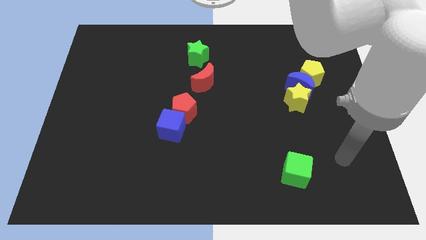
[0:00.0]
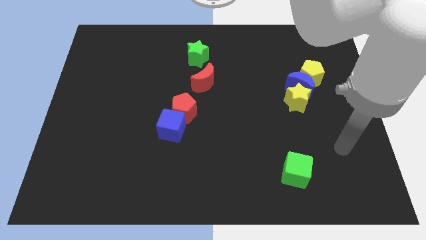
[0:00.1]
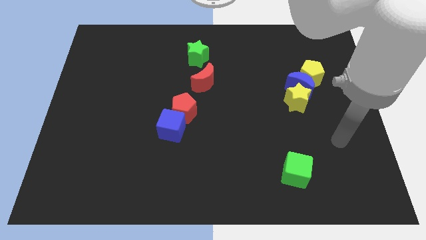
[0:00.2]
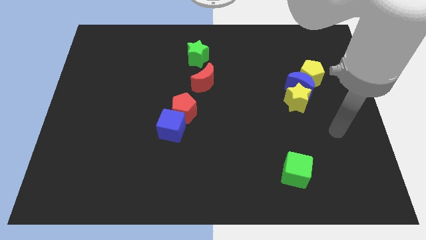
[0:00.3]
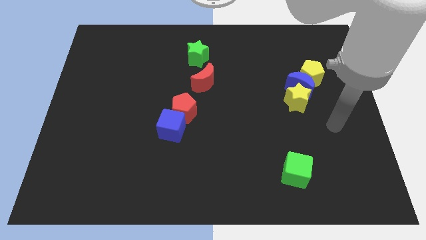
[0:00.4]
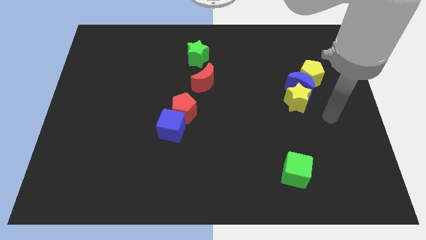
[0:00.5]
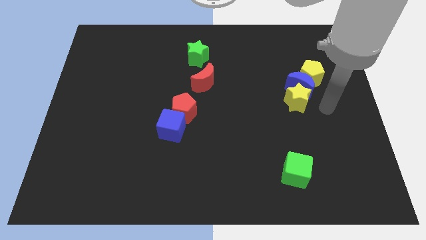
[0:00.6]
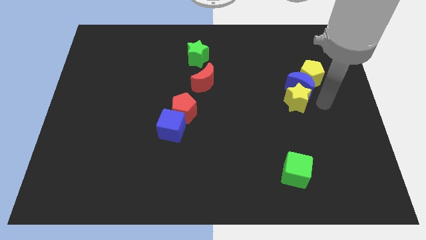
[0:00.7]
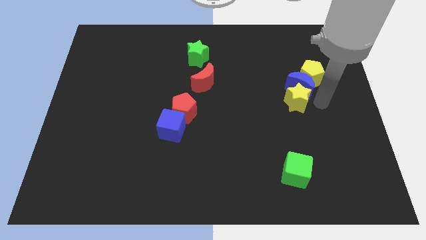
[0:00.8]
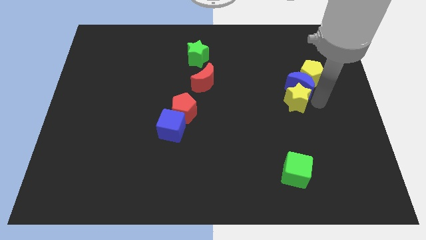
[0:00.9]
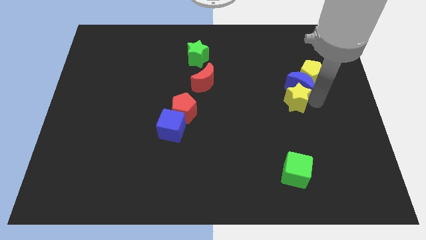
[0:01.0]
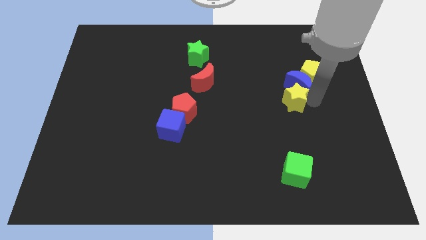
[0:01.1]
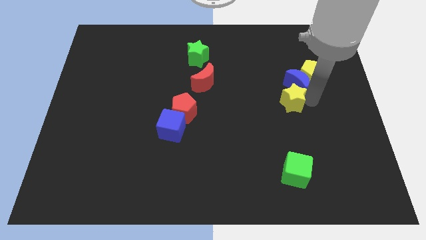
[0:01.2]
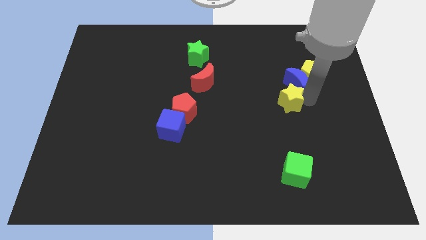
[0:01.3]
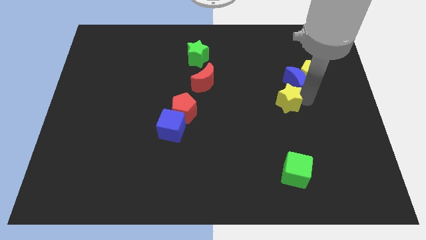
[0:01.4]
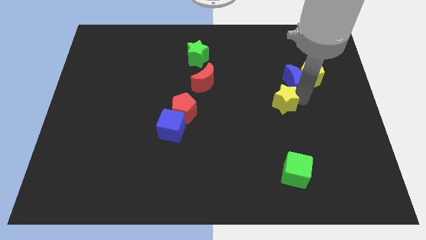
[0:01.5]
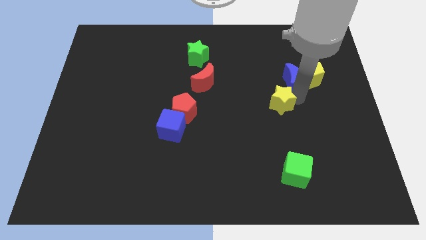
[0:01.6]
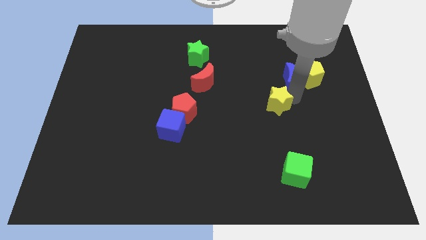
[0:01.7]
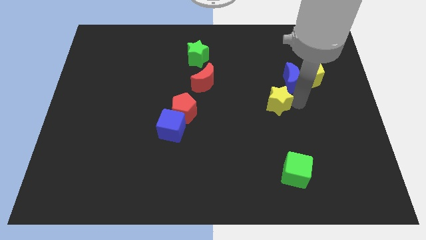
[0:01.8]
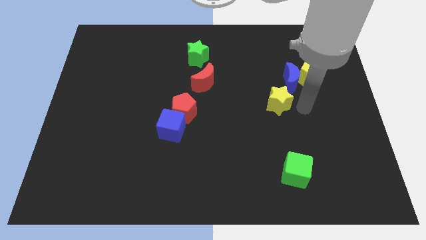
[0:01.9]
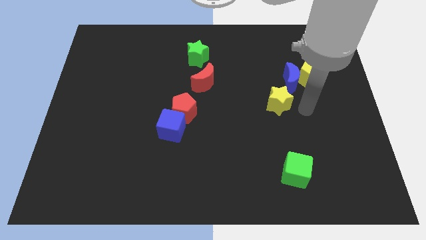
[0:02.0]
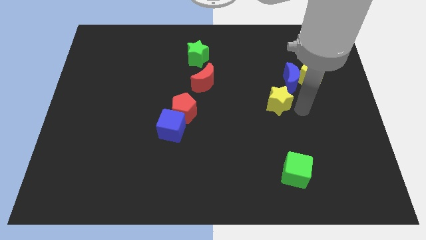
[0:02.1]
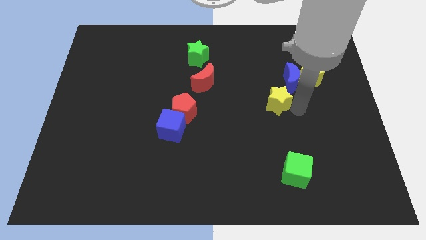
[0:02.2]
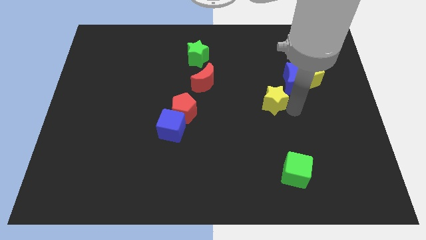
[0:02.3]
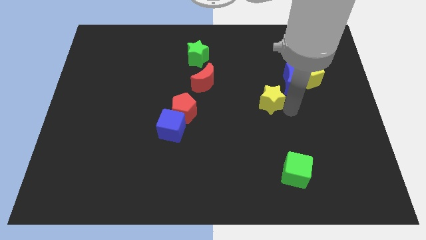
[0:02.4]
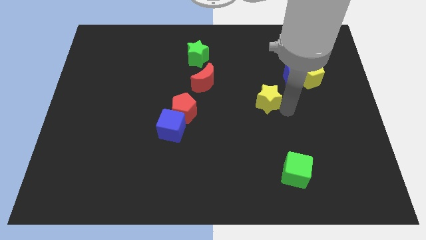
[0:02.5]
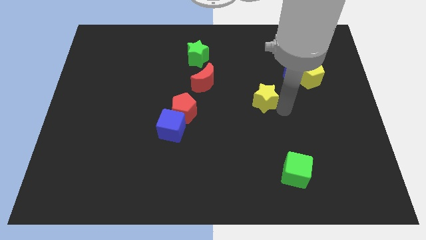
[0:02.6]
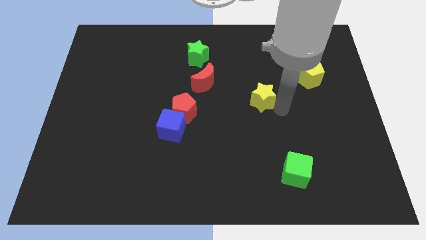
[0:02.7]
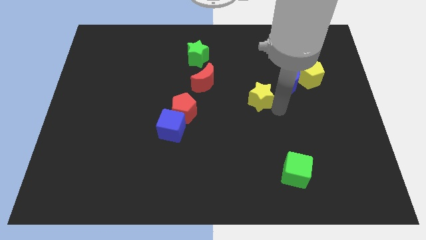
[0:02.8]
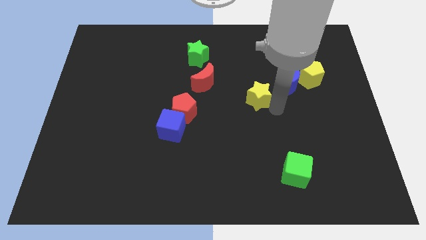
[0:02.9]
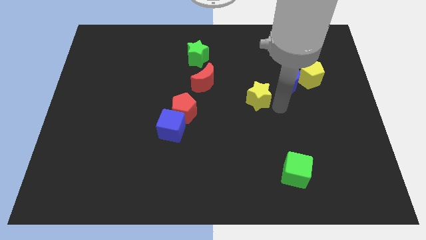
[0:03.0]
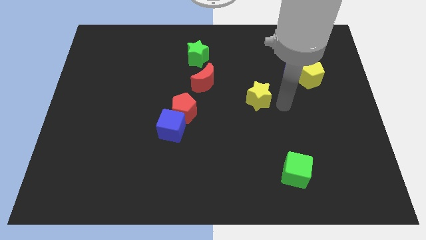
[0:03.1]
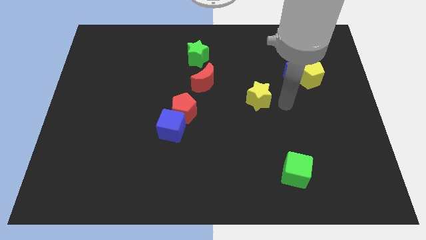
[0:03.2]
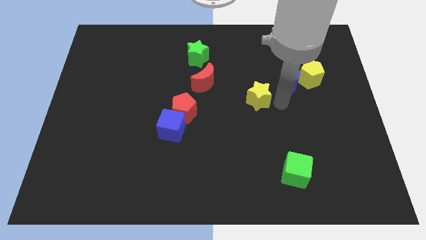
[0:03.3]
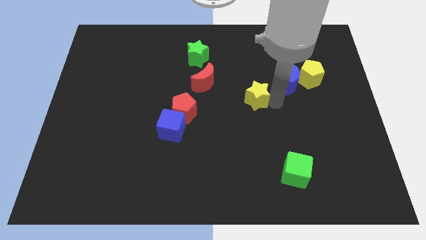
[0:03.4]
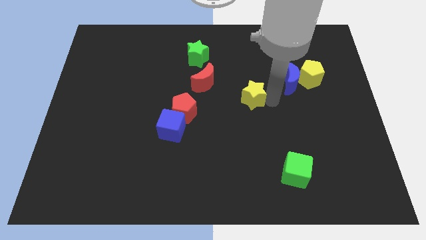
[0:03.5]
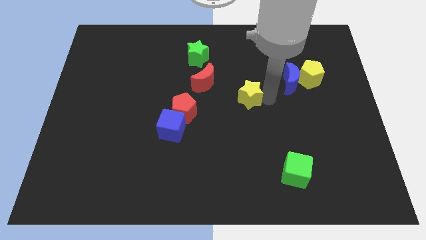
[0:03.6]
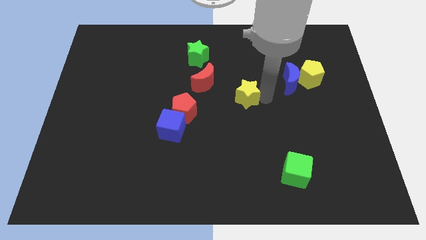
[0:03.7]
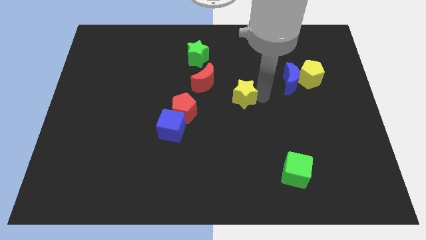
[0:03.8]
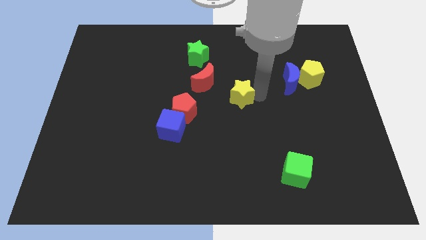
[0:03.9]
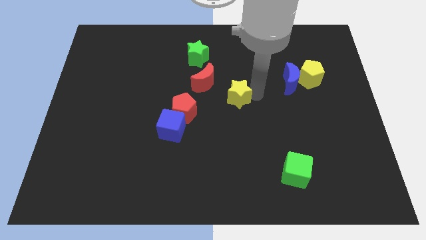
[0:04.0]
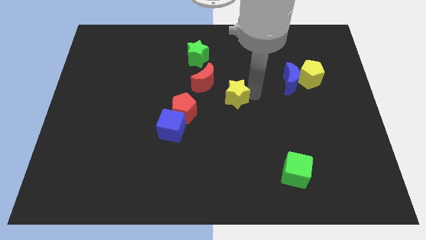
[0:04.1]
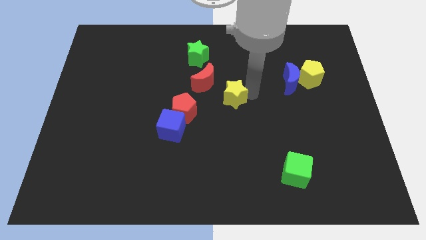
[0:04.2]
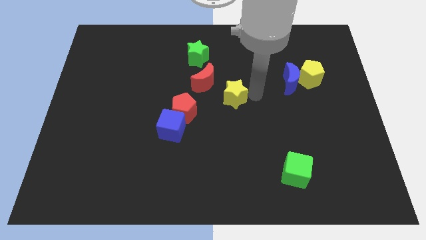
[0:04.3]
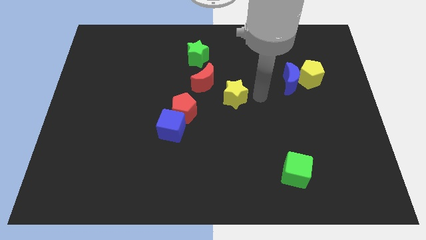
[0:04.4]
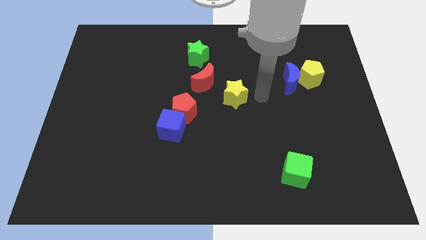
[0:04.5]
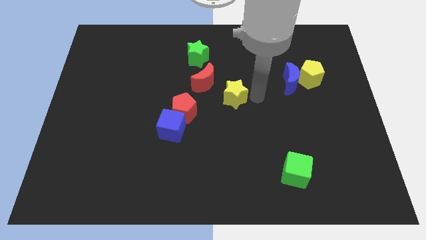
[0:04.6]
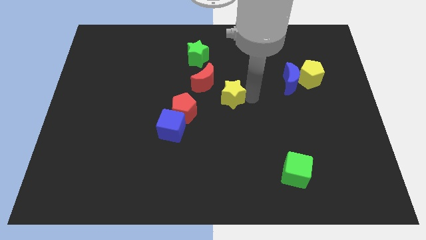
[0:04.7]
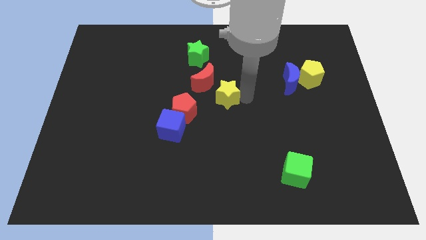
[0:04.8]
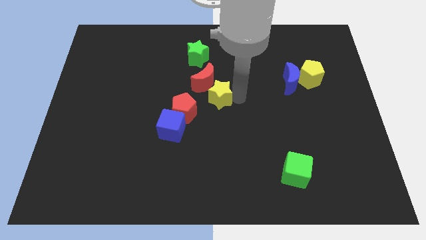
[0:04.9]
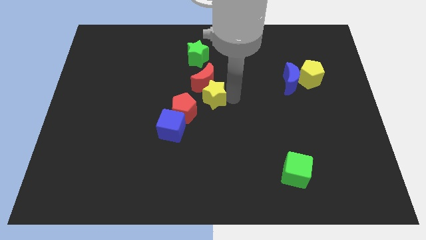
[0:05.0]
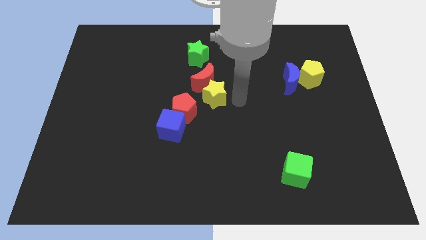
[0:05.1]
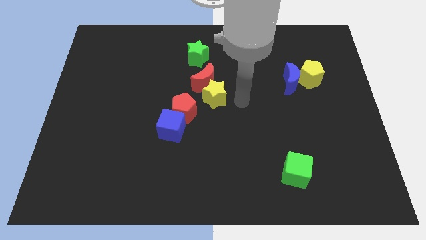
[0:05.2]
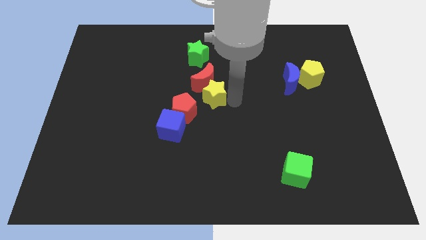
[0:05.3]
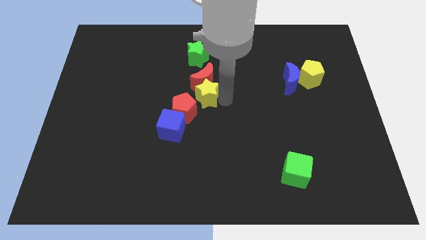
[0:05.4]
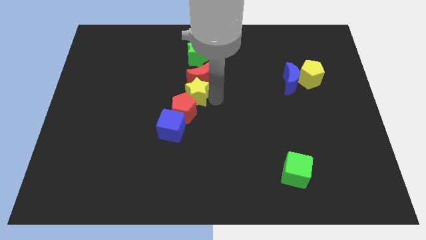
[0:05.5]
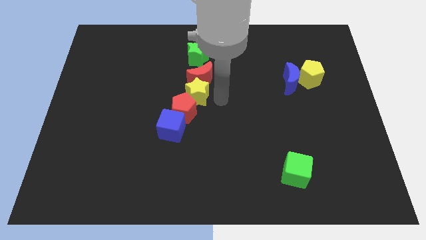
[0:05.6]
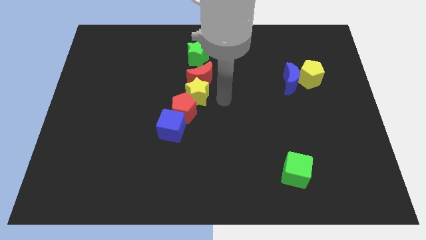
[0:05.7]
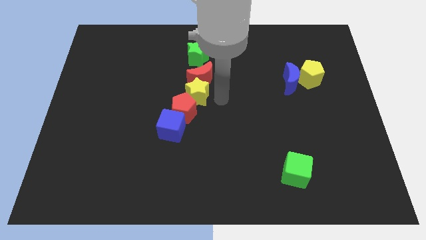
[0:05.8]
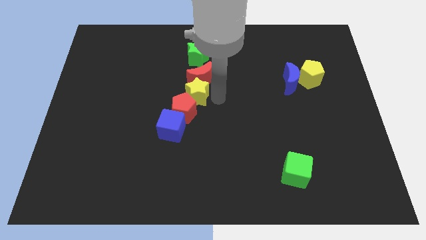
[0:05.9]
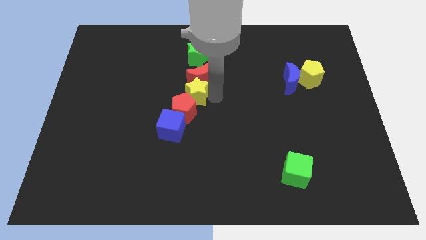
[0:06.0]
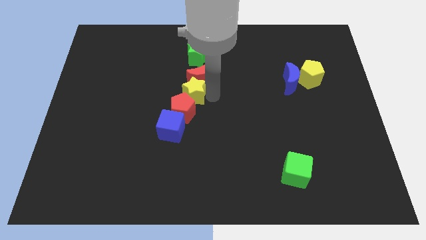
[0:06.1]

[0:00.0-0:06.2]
push the yellow star to the top side of the blue cube

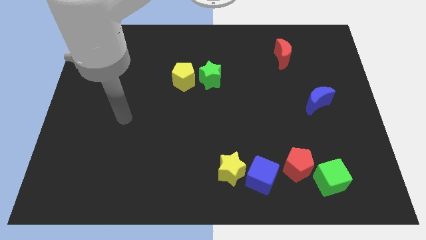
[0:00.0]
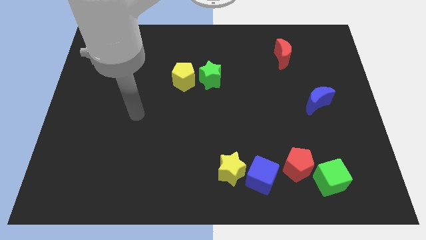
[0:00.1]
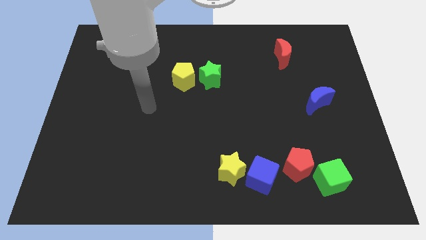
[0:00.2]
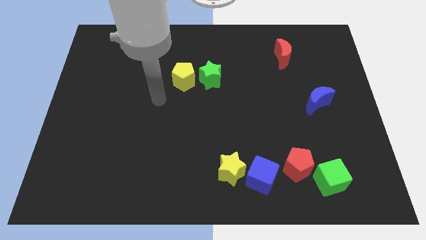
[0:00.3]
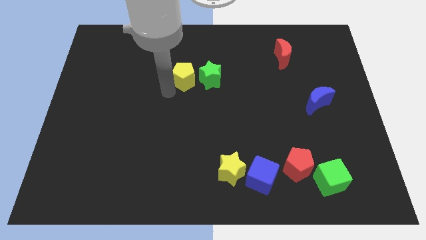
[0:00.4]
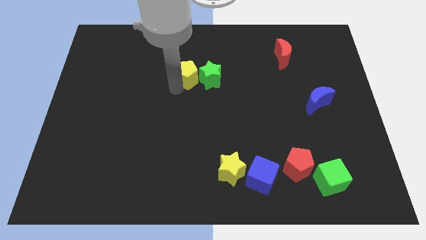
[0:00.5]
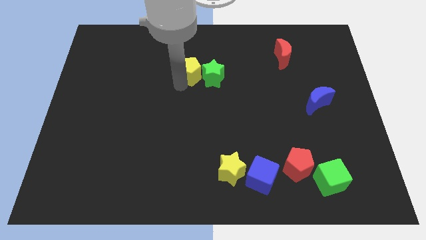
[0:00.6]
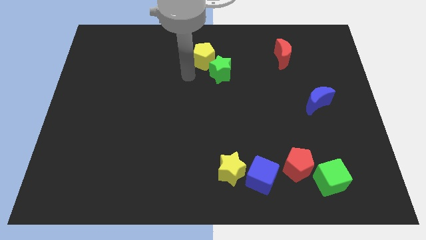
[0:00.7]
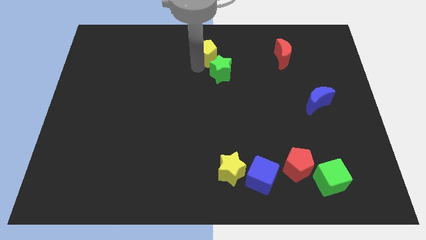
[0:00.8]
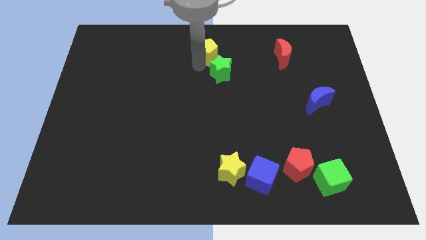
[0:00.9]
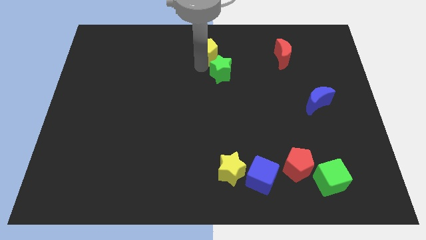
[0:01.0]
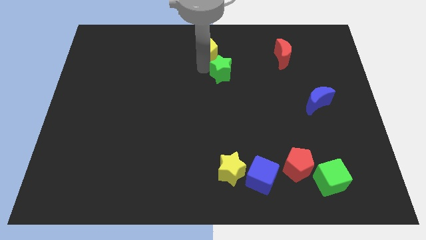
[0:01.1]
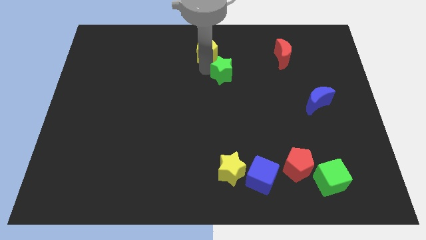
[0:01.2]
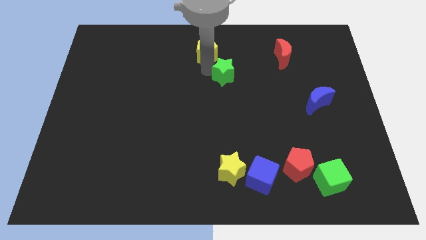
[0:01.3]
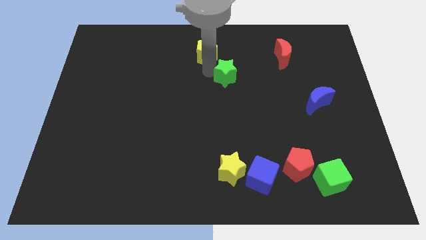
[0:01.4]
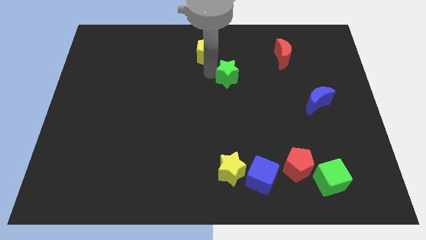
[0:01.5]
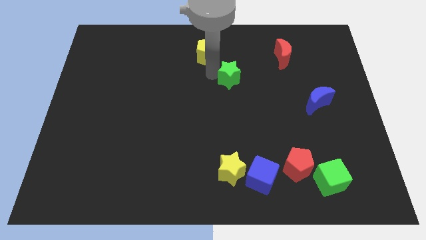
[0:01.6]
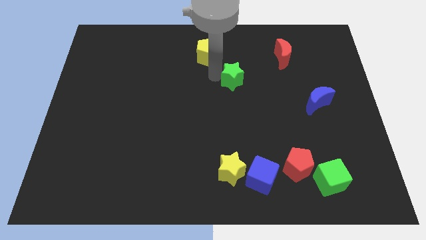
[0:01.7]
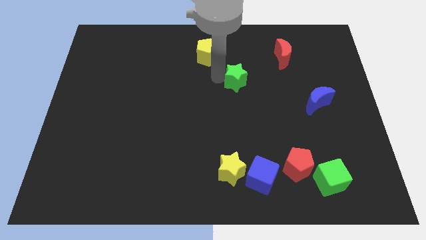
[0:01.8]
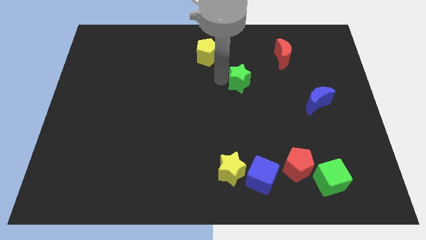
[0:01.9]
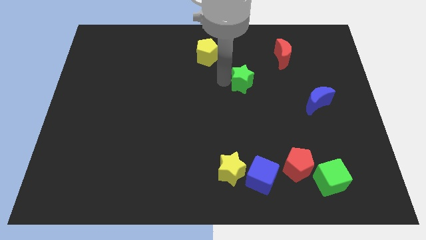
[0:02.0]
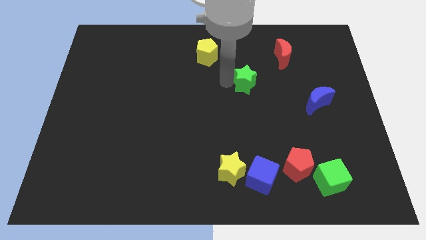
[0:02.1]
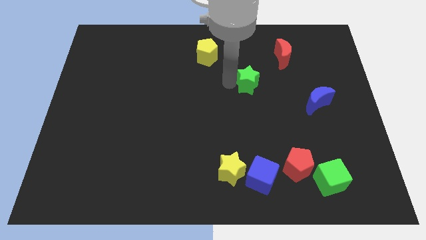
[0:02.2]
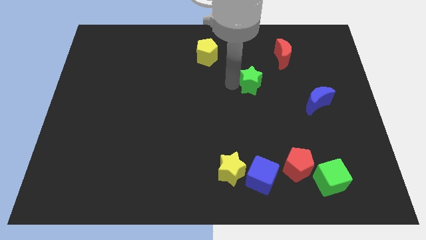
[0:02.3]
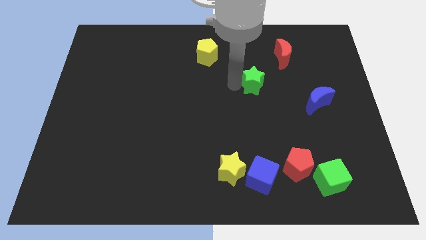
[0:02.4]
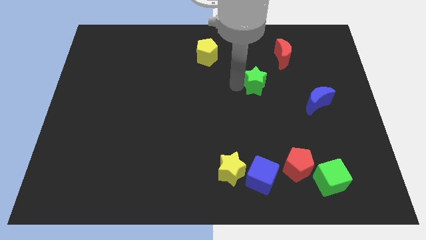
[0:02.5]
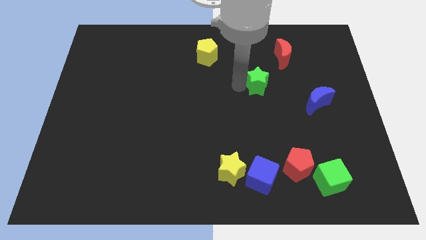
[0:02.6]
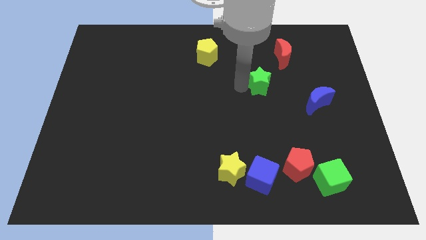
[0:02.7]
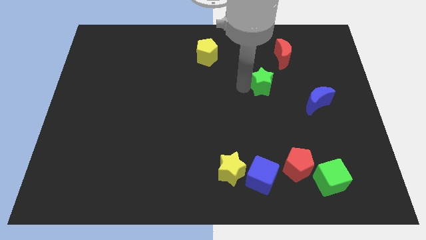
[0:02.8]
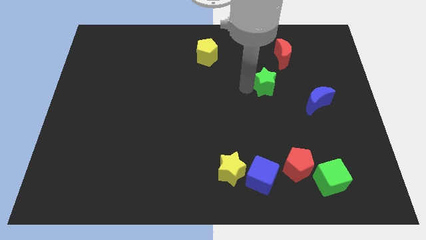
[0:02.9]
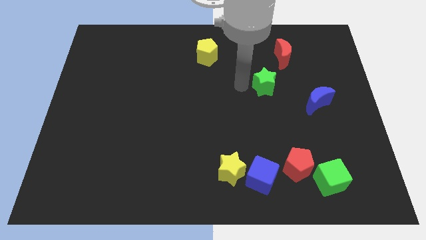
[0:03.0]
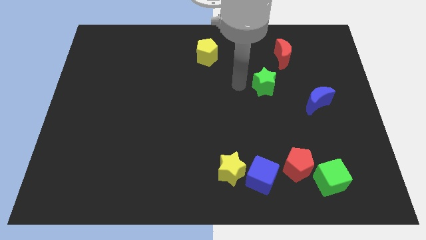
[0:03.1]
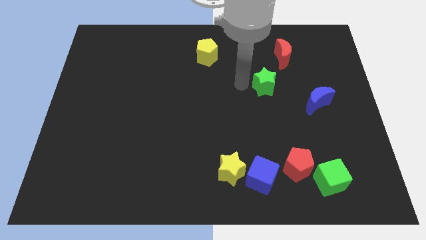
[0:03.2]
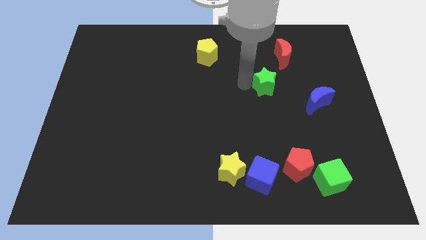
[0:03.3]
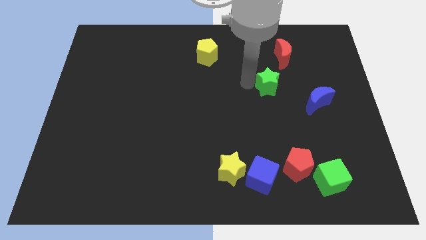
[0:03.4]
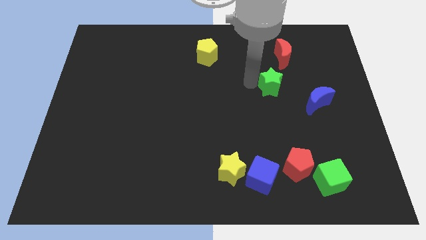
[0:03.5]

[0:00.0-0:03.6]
put the green star to the top left side of the blue moon
